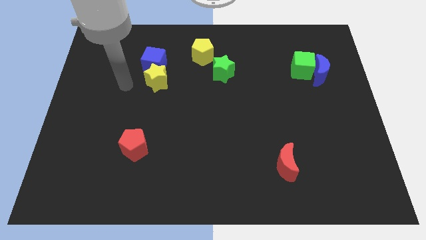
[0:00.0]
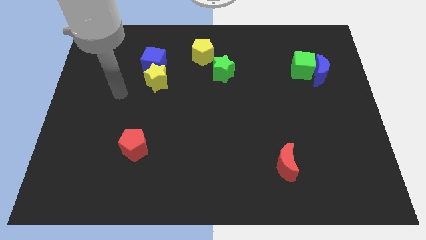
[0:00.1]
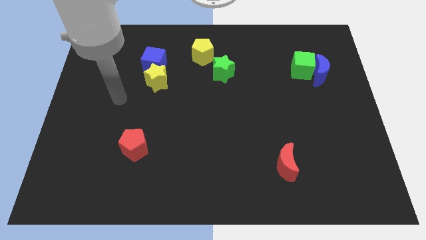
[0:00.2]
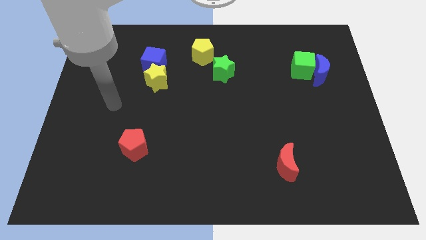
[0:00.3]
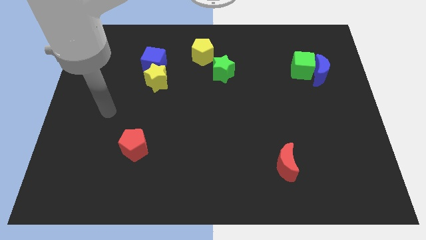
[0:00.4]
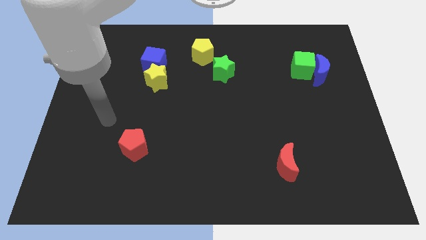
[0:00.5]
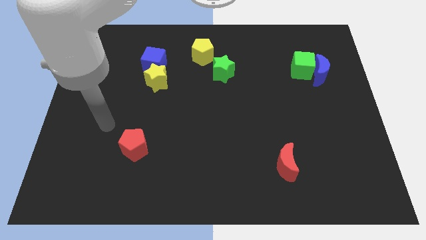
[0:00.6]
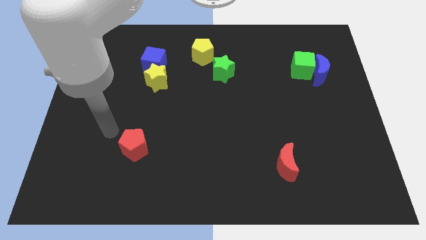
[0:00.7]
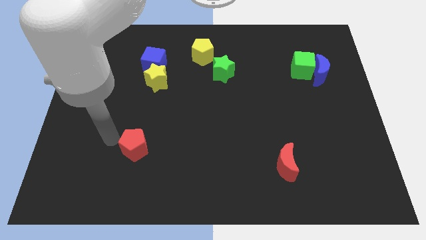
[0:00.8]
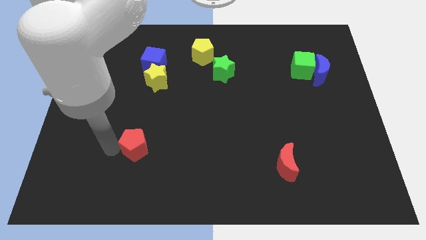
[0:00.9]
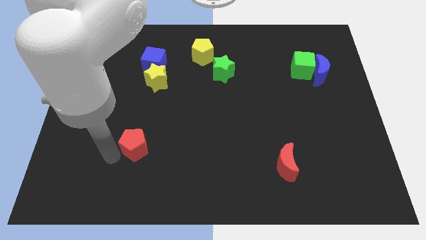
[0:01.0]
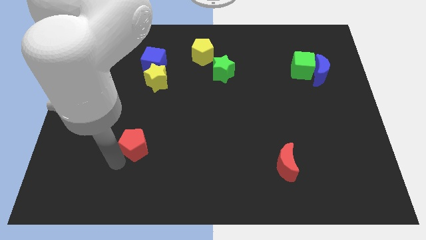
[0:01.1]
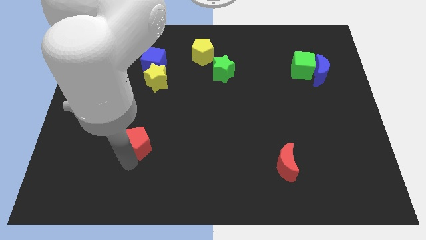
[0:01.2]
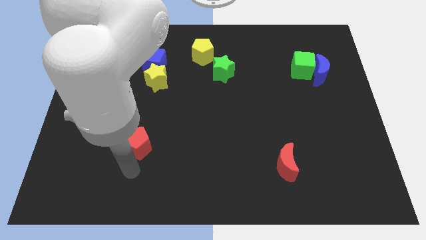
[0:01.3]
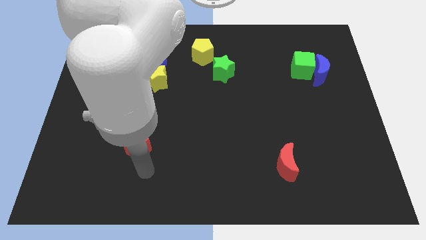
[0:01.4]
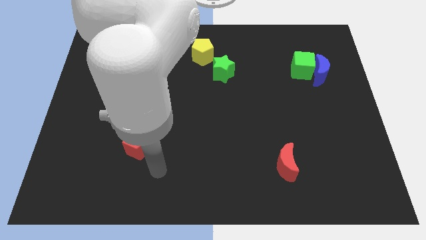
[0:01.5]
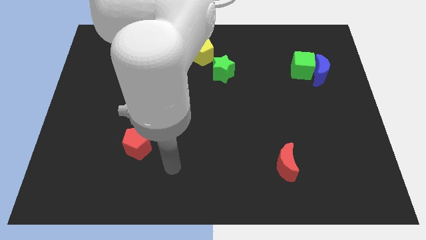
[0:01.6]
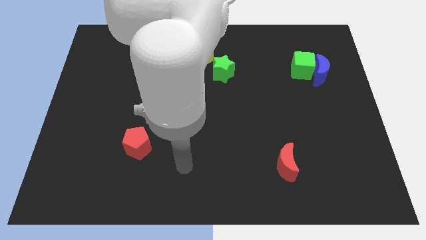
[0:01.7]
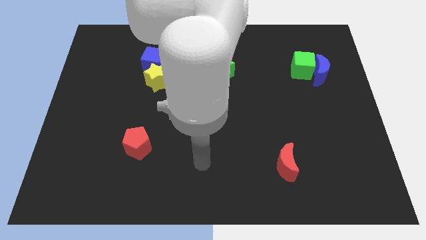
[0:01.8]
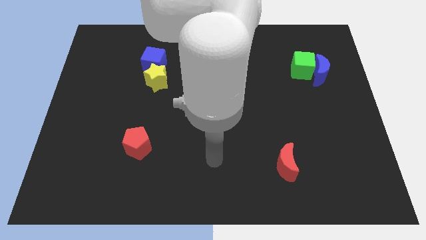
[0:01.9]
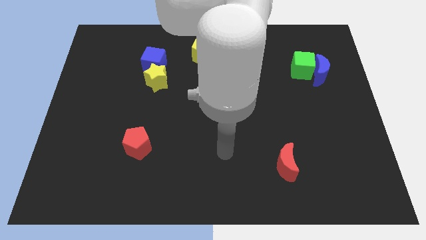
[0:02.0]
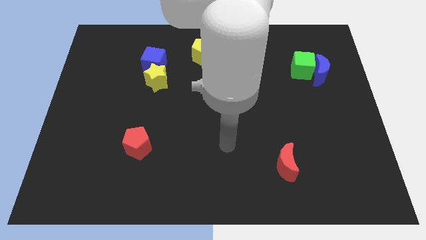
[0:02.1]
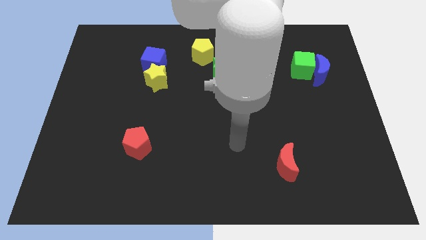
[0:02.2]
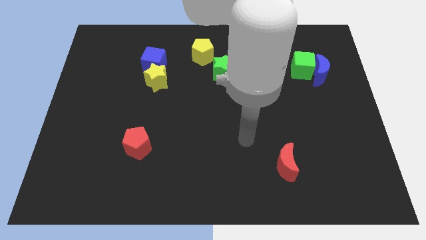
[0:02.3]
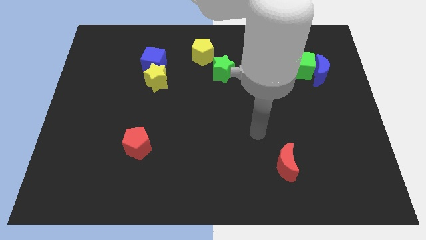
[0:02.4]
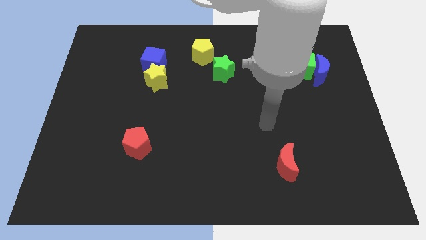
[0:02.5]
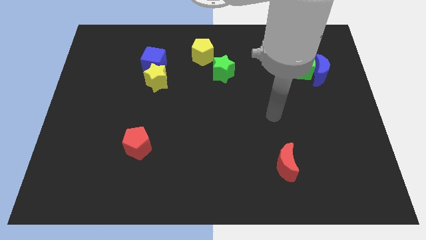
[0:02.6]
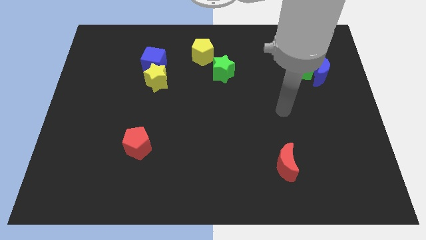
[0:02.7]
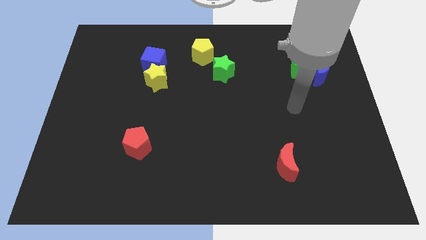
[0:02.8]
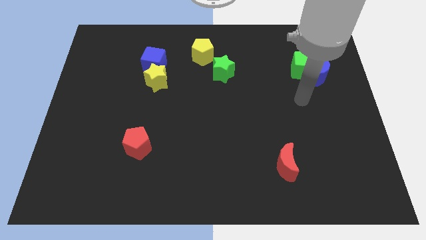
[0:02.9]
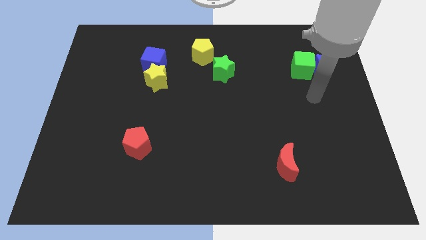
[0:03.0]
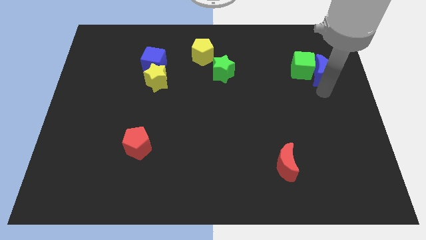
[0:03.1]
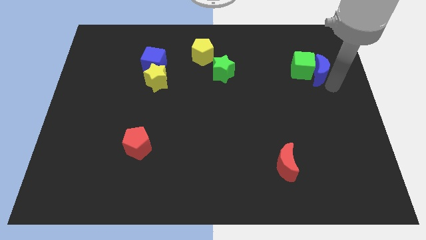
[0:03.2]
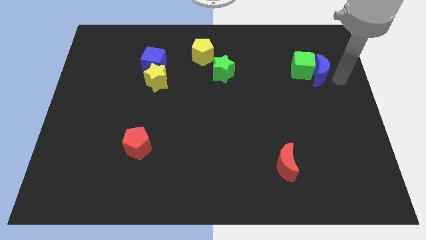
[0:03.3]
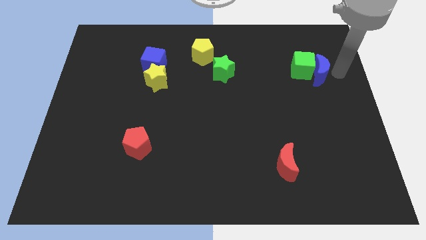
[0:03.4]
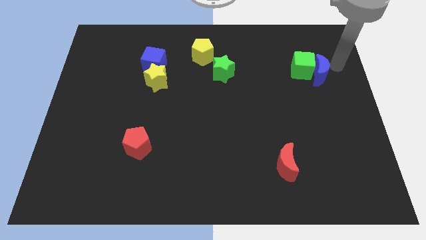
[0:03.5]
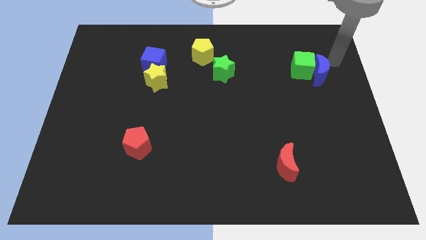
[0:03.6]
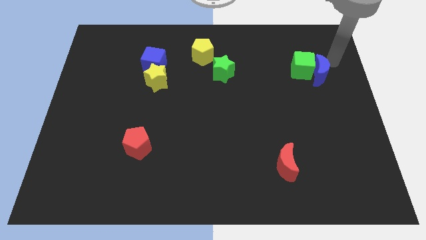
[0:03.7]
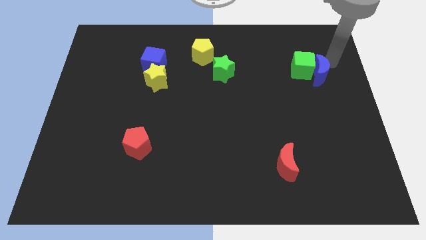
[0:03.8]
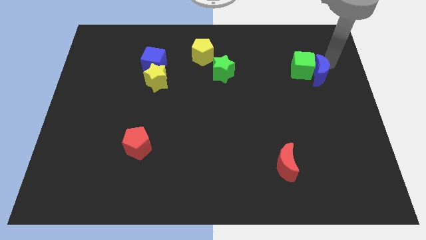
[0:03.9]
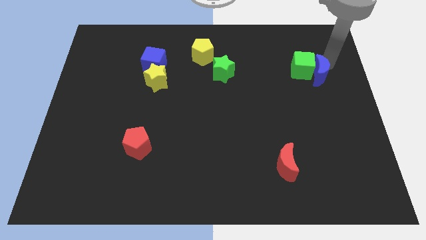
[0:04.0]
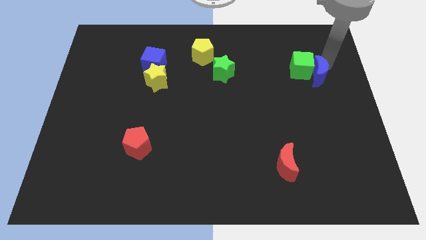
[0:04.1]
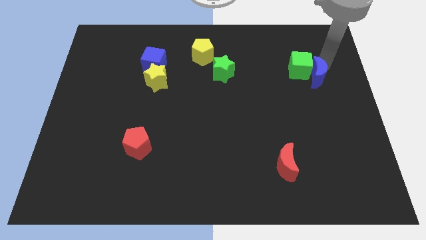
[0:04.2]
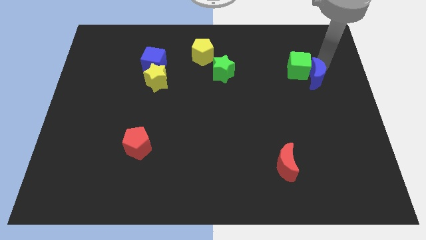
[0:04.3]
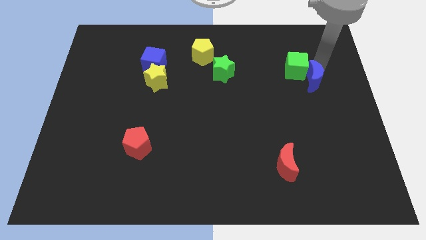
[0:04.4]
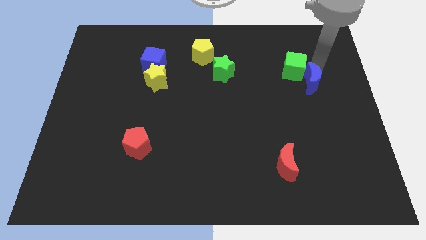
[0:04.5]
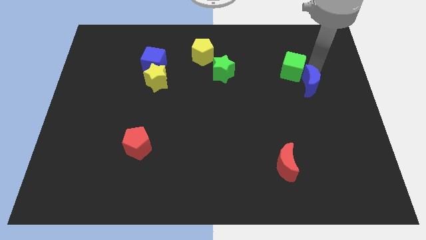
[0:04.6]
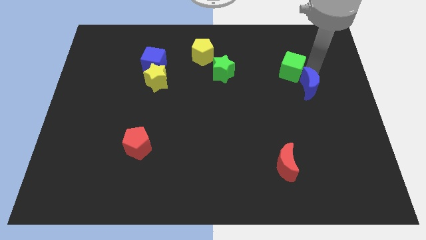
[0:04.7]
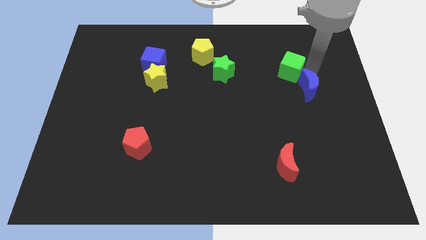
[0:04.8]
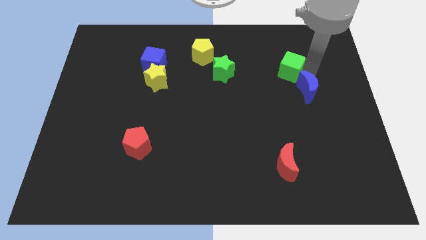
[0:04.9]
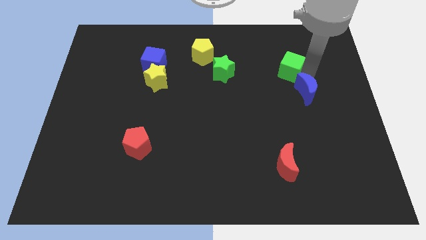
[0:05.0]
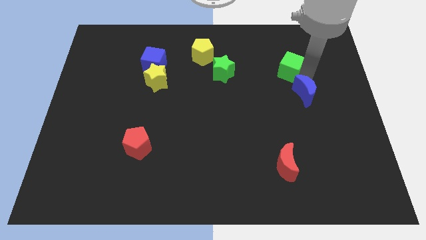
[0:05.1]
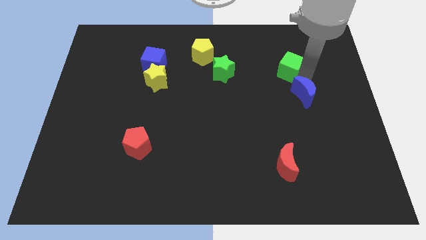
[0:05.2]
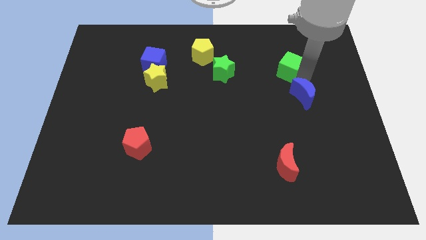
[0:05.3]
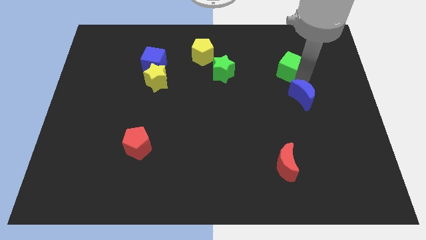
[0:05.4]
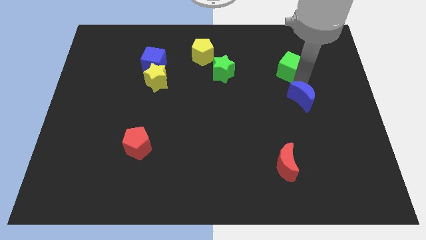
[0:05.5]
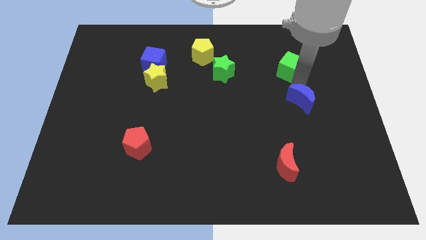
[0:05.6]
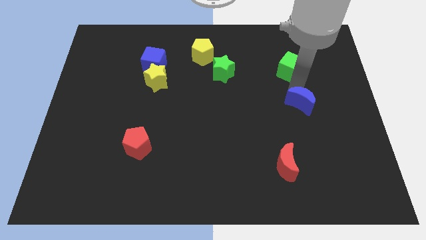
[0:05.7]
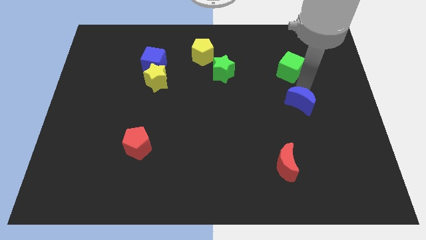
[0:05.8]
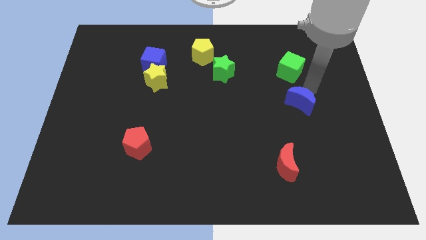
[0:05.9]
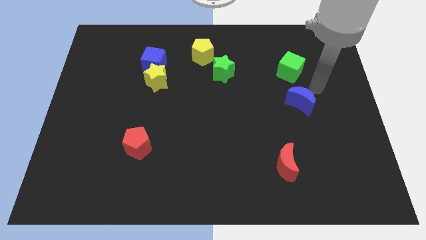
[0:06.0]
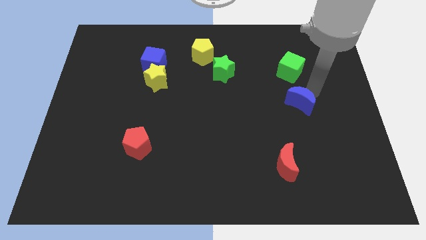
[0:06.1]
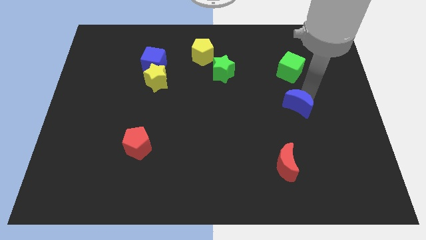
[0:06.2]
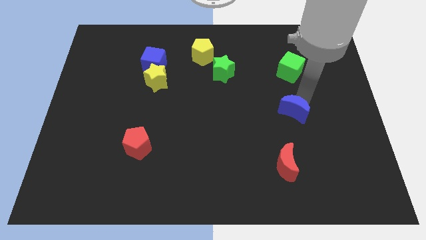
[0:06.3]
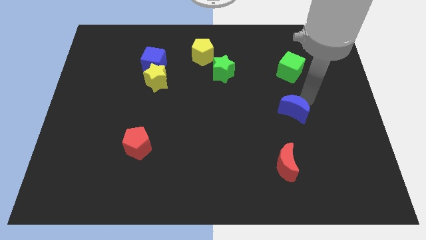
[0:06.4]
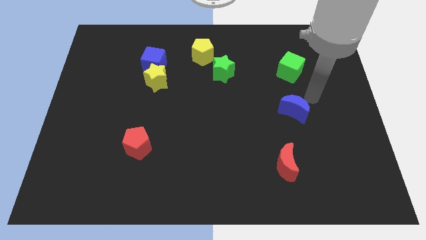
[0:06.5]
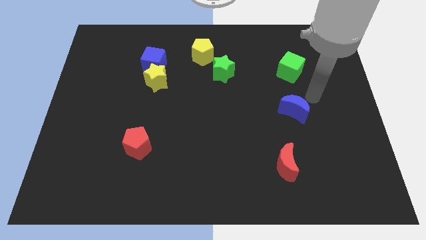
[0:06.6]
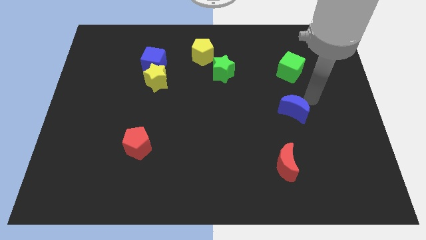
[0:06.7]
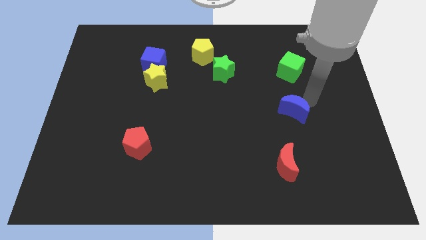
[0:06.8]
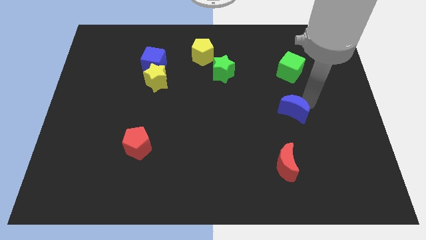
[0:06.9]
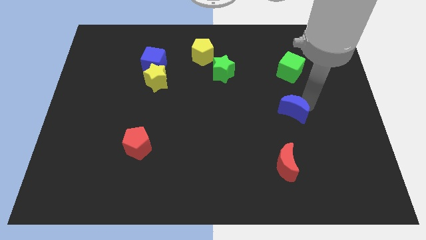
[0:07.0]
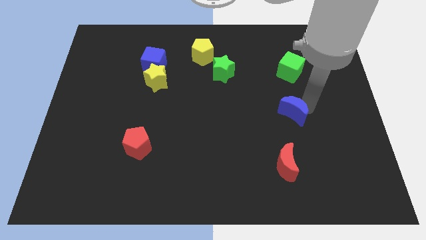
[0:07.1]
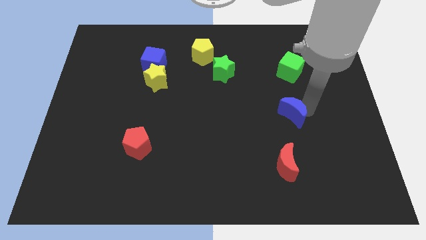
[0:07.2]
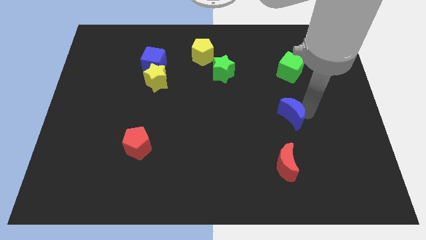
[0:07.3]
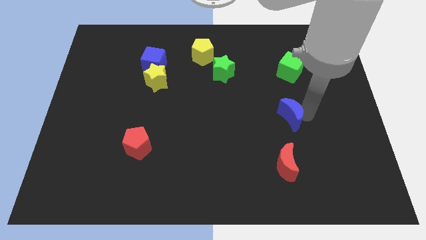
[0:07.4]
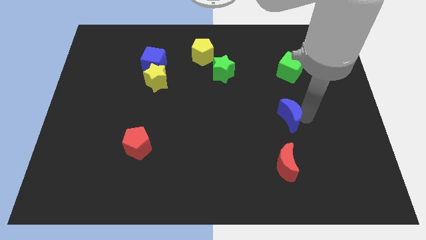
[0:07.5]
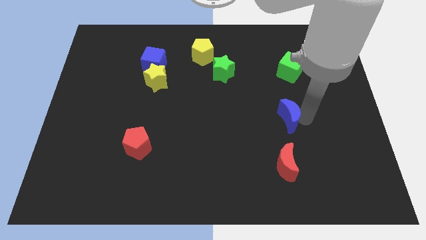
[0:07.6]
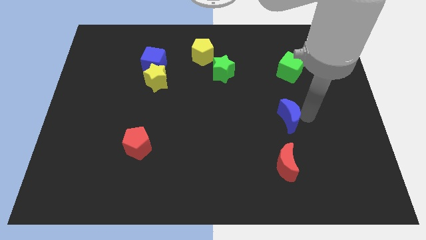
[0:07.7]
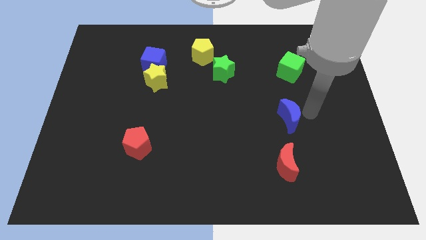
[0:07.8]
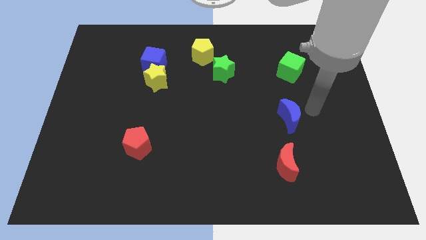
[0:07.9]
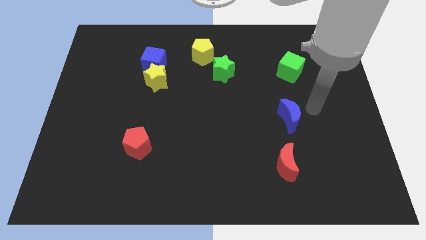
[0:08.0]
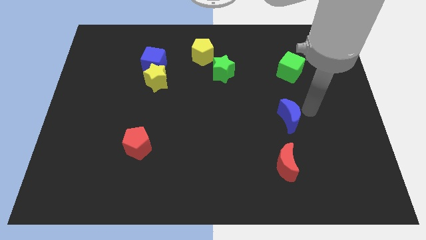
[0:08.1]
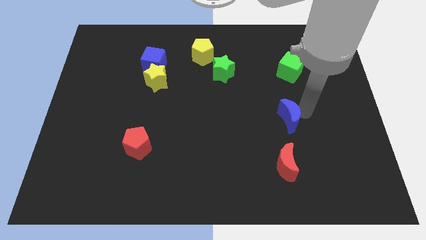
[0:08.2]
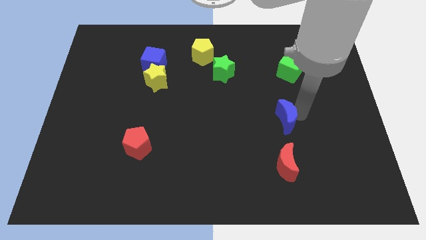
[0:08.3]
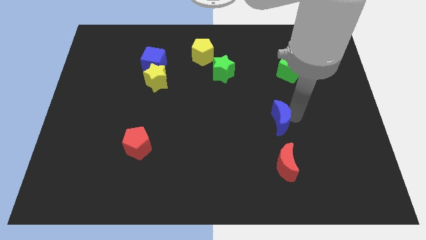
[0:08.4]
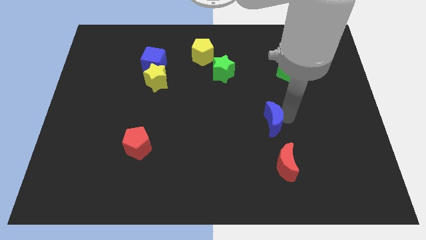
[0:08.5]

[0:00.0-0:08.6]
slide the blue moon down and to the left diagonally
